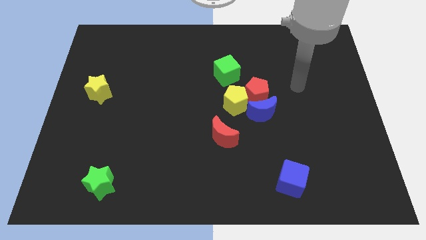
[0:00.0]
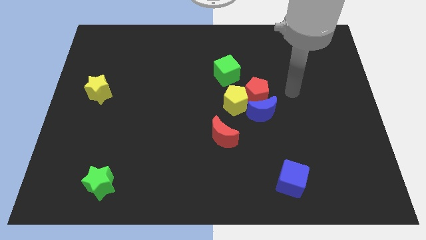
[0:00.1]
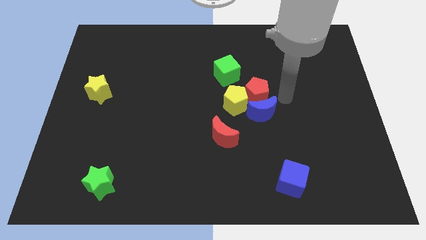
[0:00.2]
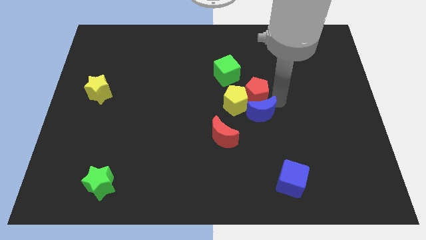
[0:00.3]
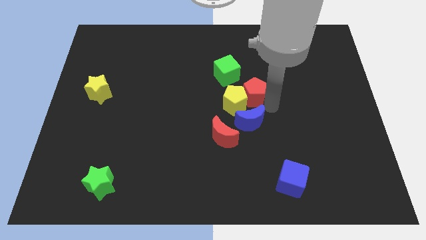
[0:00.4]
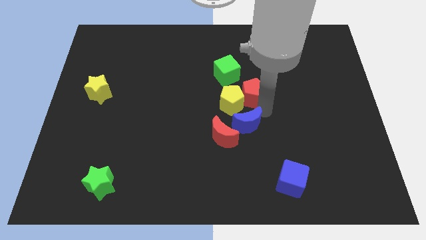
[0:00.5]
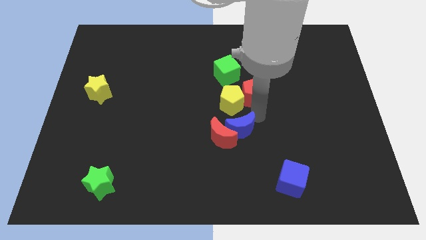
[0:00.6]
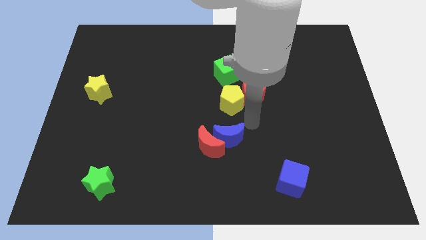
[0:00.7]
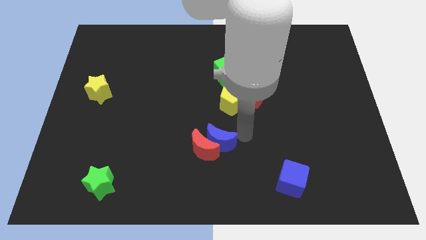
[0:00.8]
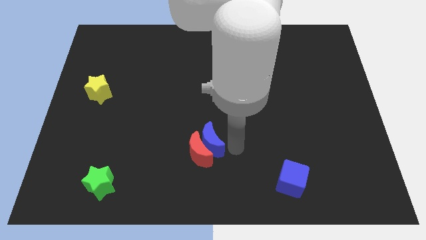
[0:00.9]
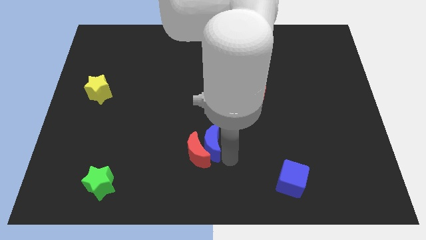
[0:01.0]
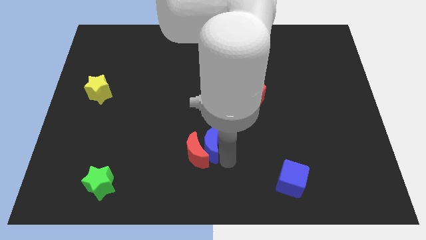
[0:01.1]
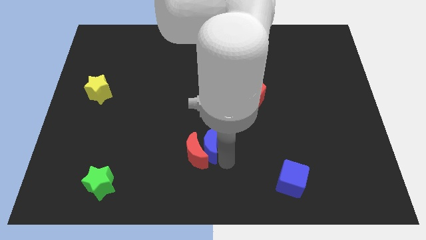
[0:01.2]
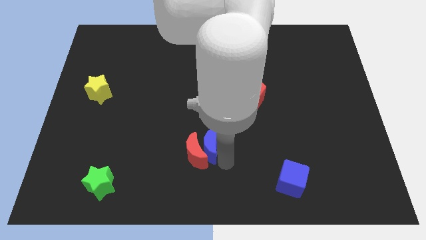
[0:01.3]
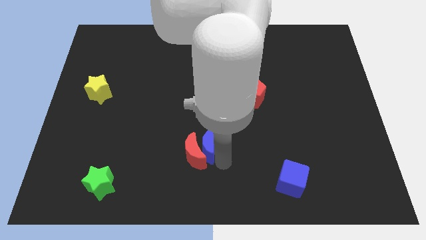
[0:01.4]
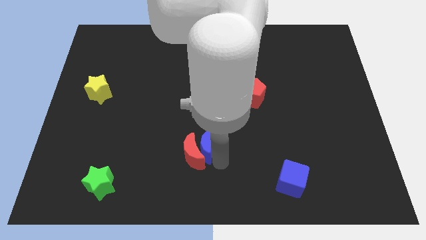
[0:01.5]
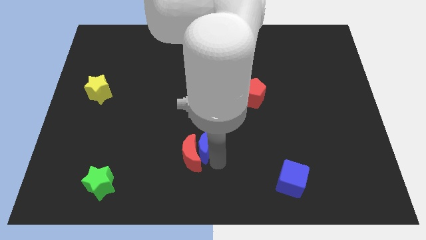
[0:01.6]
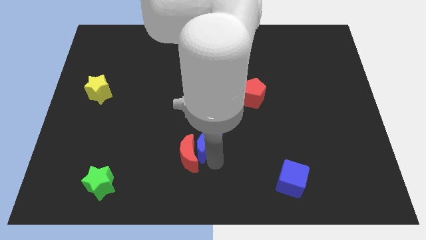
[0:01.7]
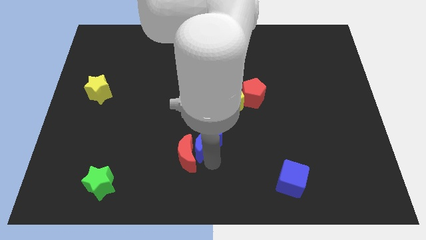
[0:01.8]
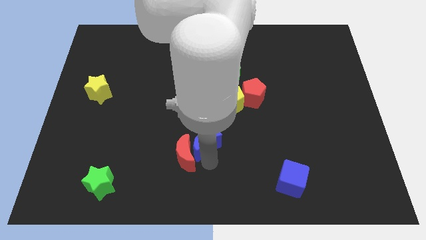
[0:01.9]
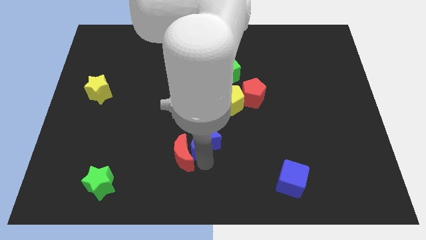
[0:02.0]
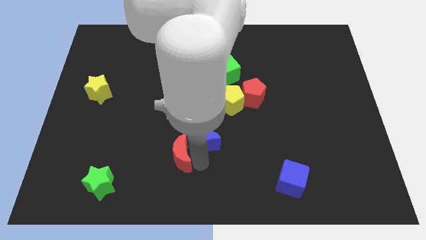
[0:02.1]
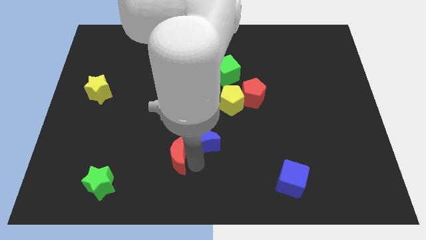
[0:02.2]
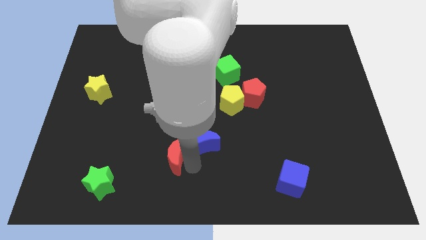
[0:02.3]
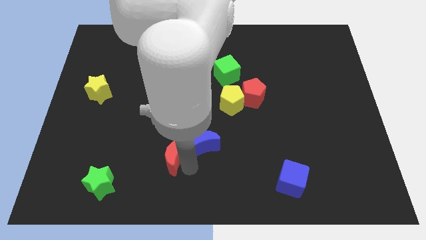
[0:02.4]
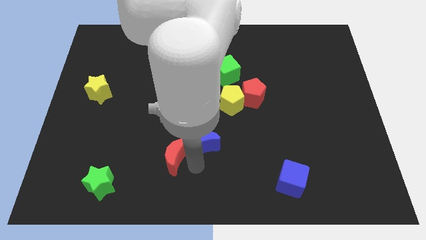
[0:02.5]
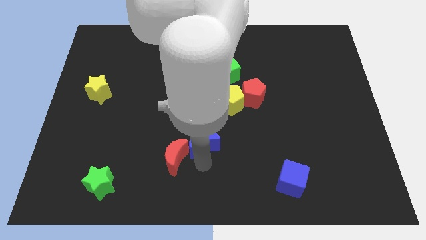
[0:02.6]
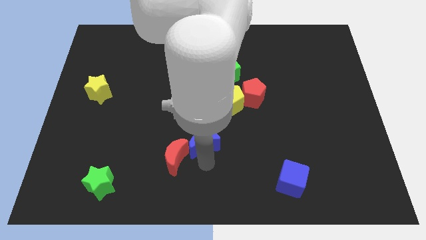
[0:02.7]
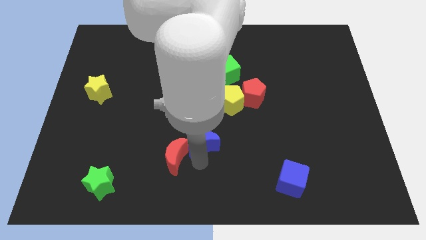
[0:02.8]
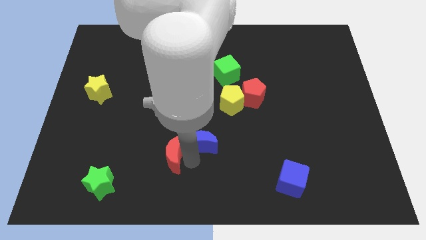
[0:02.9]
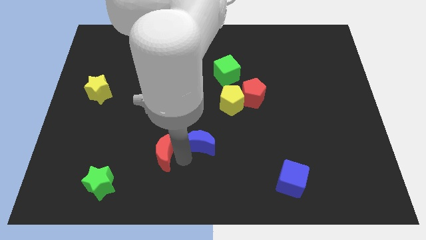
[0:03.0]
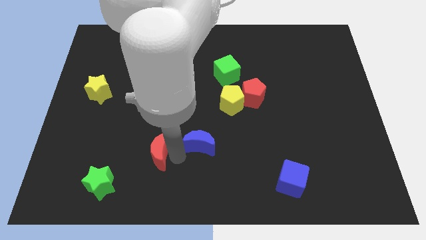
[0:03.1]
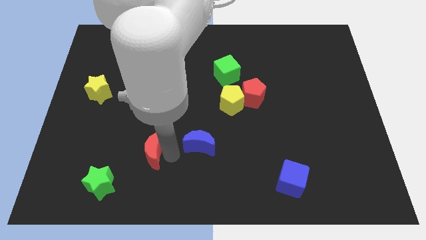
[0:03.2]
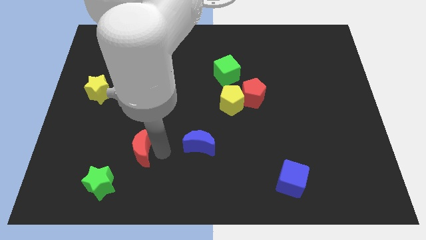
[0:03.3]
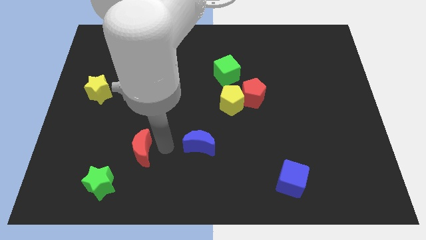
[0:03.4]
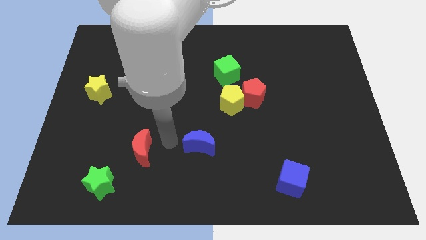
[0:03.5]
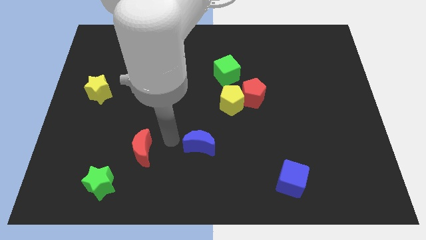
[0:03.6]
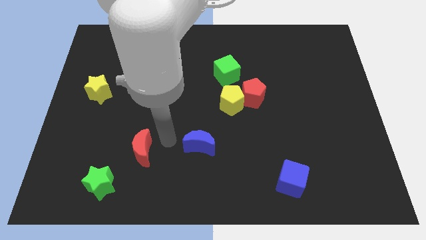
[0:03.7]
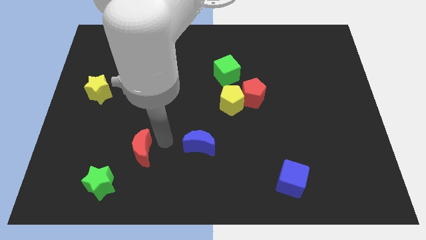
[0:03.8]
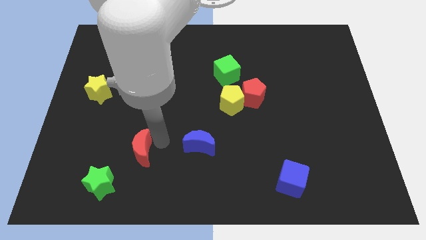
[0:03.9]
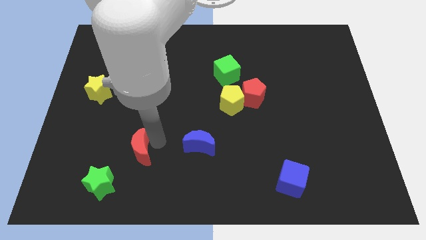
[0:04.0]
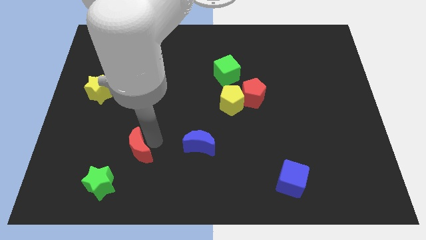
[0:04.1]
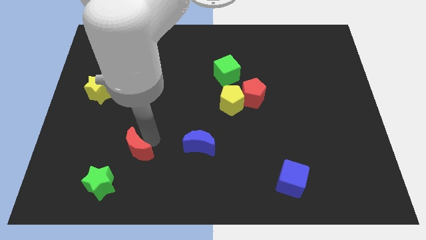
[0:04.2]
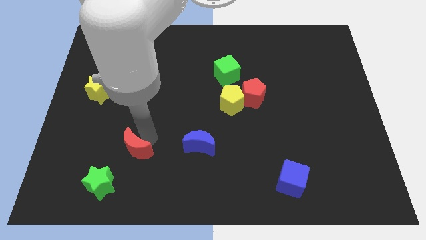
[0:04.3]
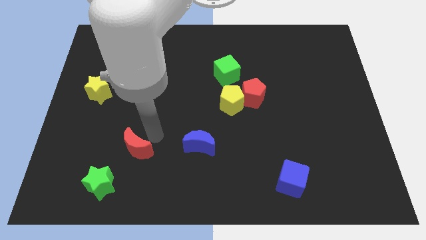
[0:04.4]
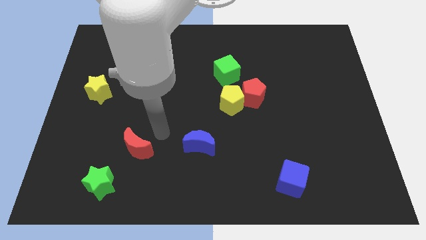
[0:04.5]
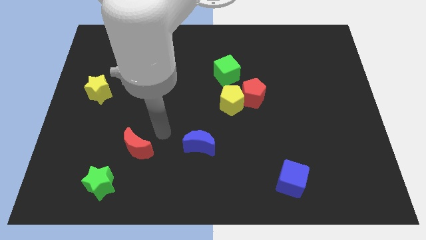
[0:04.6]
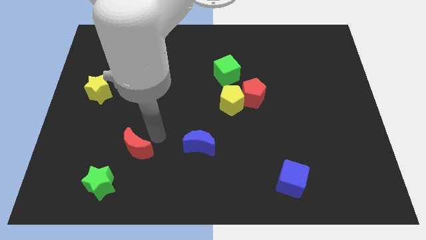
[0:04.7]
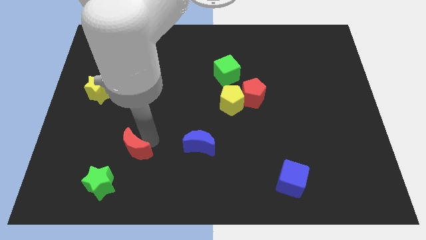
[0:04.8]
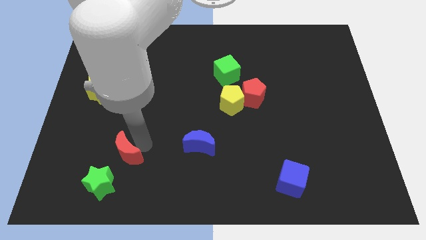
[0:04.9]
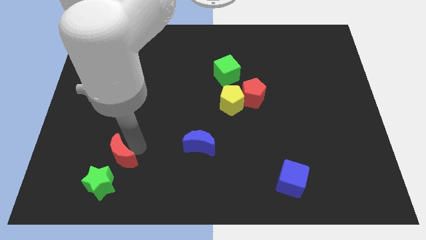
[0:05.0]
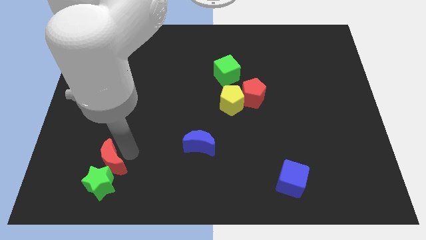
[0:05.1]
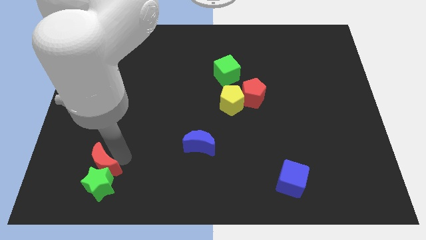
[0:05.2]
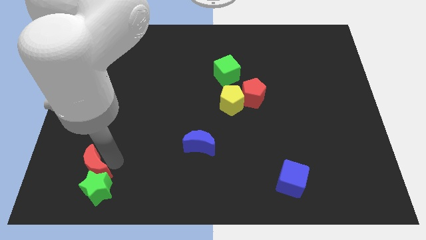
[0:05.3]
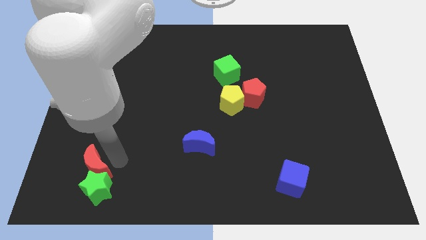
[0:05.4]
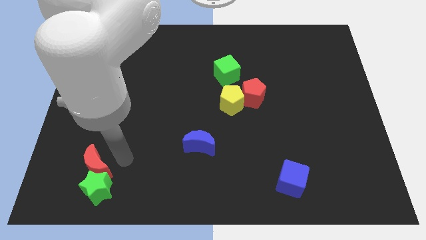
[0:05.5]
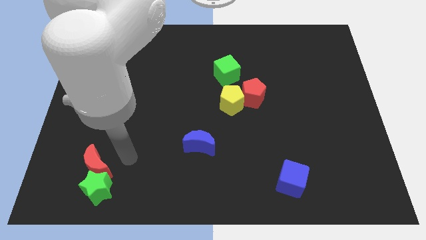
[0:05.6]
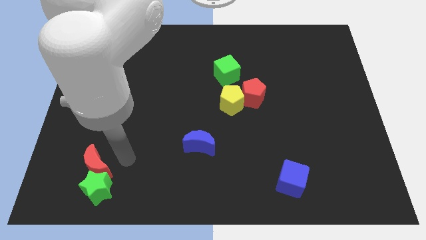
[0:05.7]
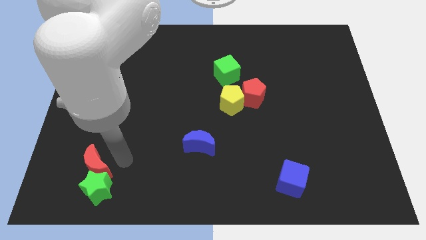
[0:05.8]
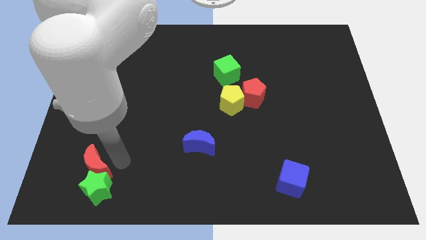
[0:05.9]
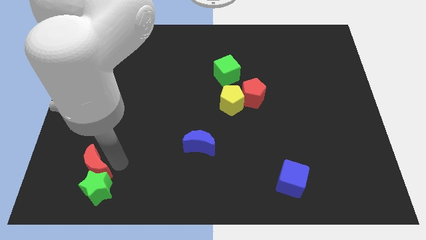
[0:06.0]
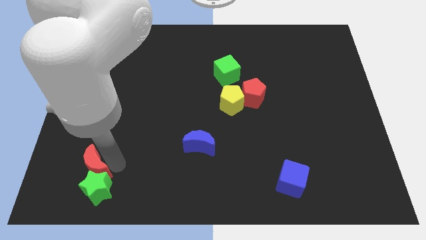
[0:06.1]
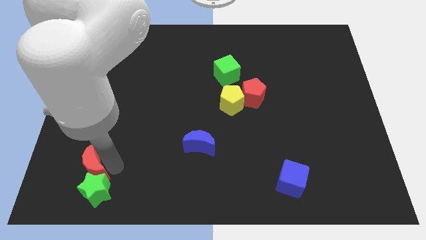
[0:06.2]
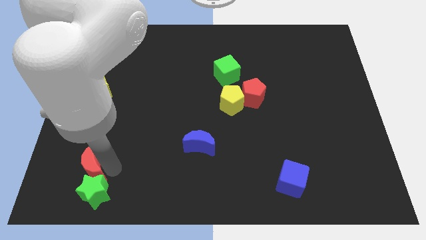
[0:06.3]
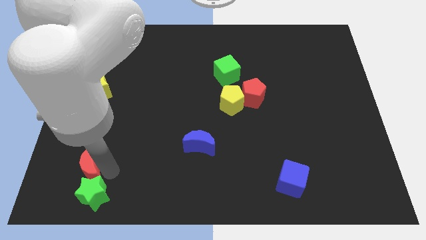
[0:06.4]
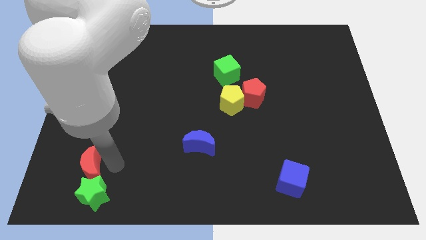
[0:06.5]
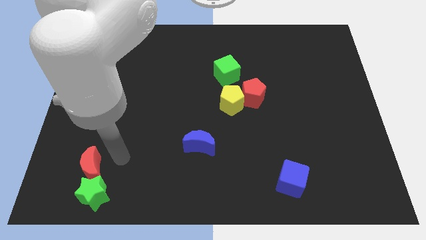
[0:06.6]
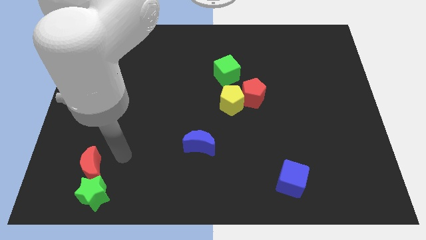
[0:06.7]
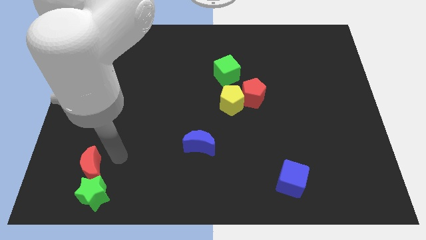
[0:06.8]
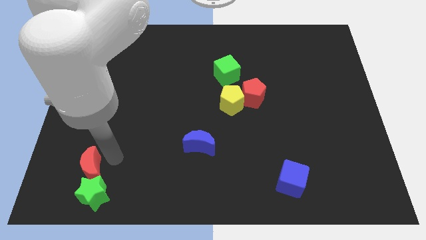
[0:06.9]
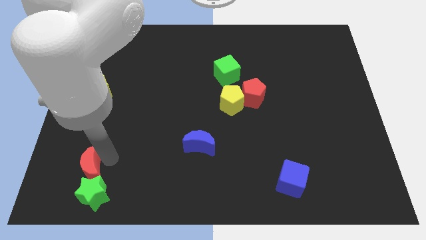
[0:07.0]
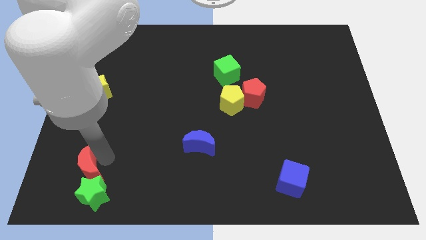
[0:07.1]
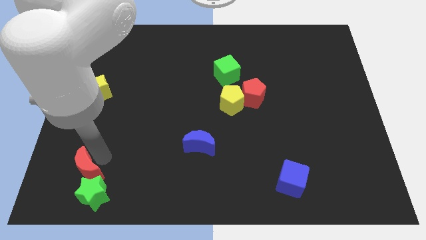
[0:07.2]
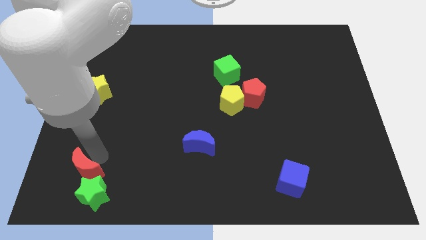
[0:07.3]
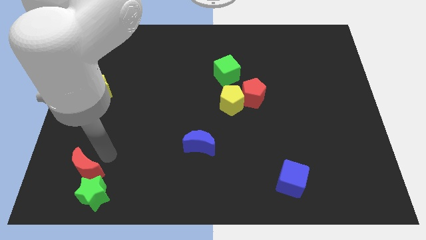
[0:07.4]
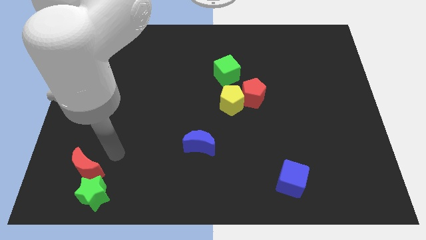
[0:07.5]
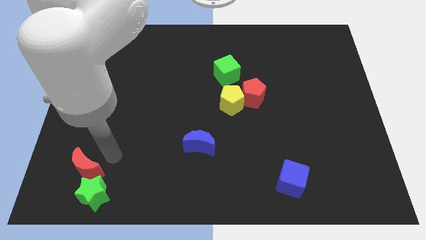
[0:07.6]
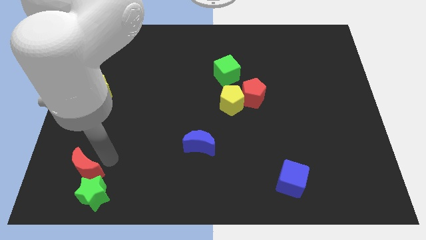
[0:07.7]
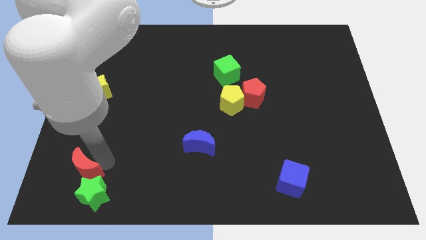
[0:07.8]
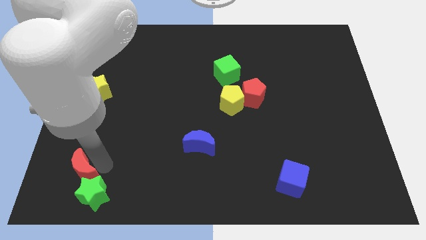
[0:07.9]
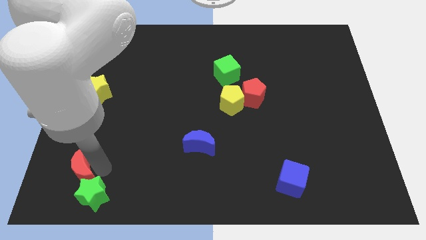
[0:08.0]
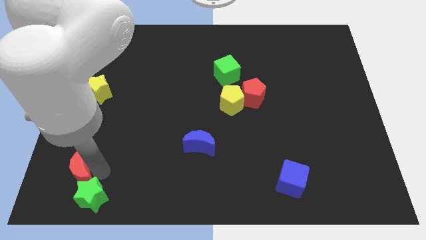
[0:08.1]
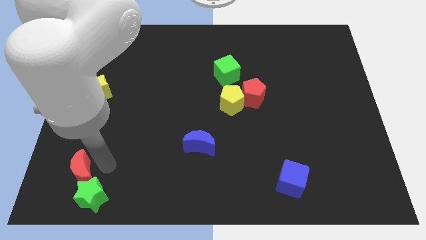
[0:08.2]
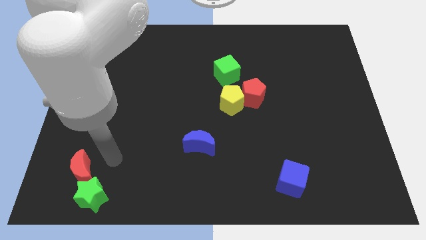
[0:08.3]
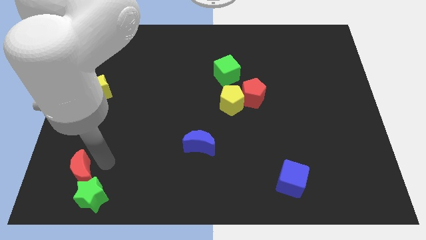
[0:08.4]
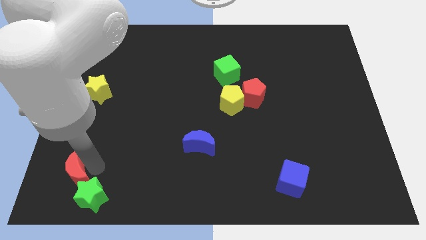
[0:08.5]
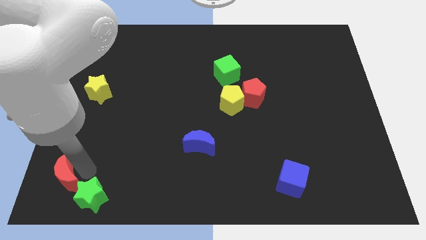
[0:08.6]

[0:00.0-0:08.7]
move the red moon to the bottom left of the board
